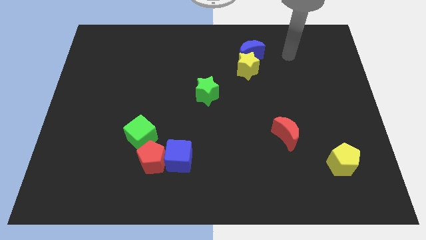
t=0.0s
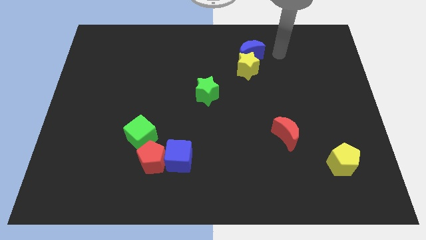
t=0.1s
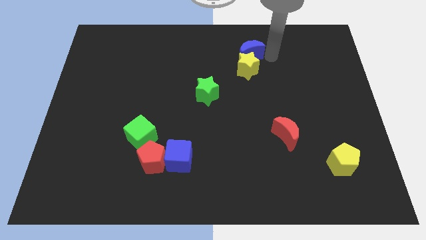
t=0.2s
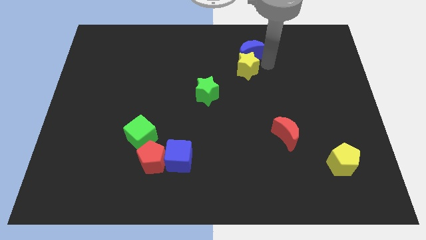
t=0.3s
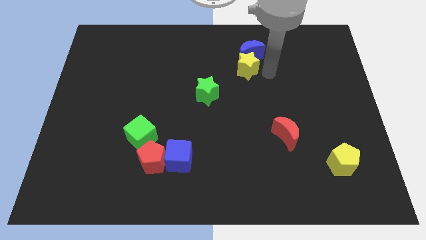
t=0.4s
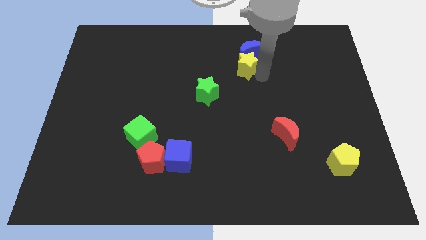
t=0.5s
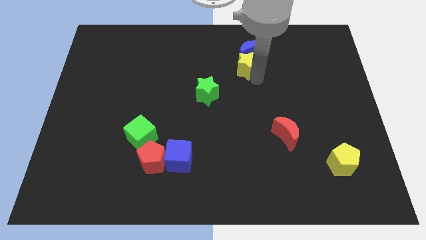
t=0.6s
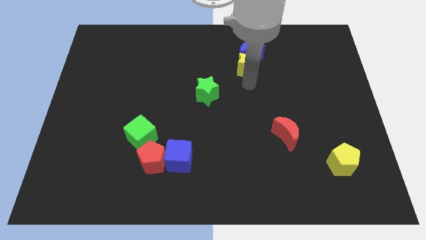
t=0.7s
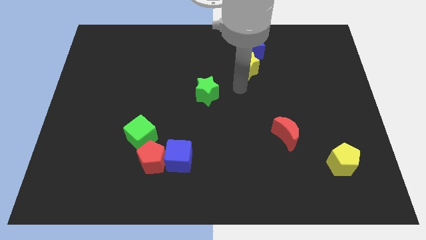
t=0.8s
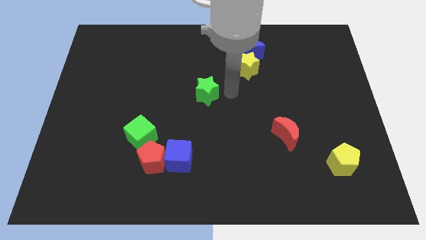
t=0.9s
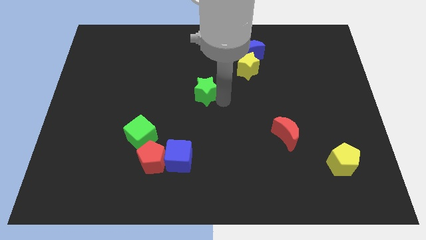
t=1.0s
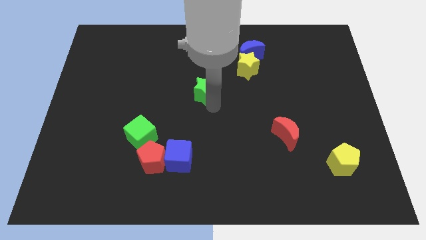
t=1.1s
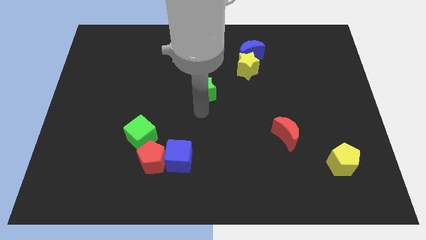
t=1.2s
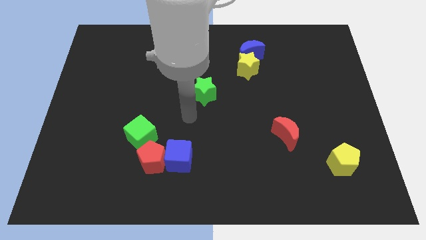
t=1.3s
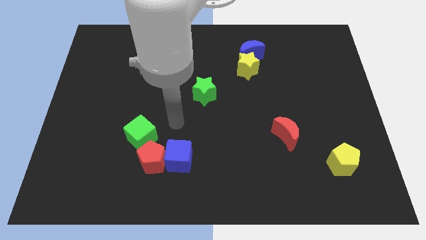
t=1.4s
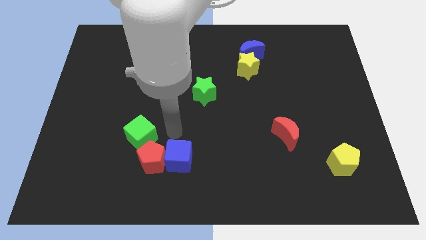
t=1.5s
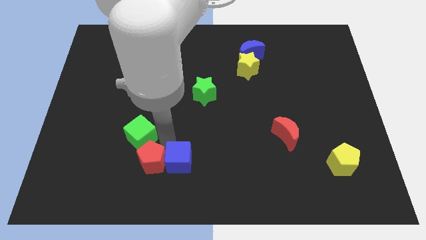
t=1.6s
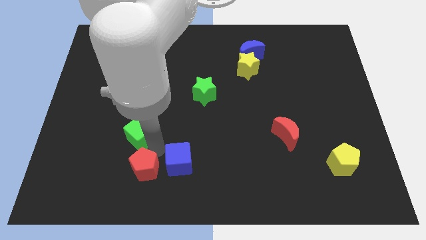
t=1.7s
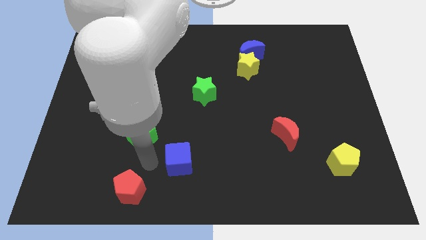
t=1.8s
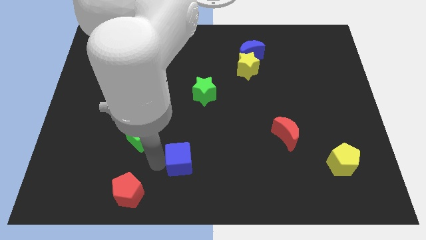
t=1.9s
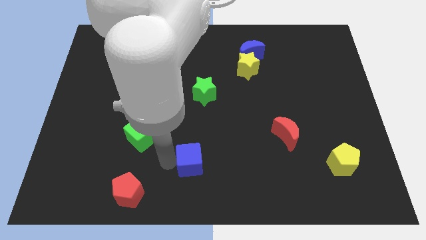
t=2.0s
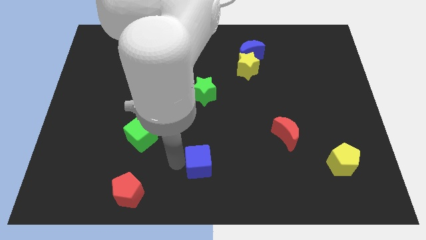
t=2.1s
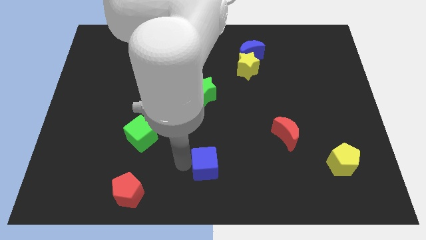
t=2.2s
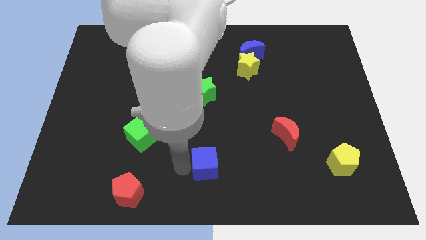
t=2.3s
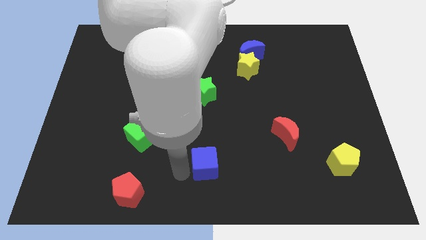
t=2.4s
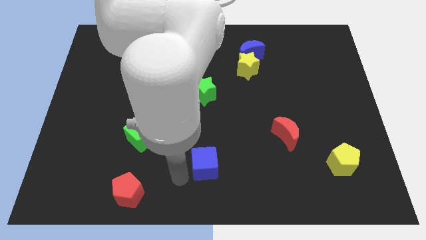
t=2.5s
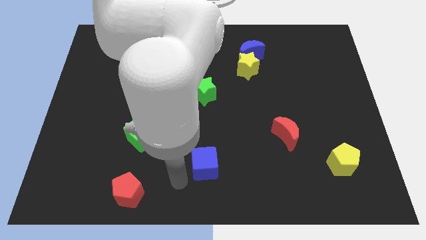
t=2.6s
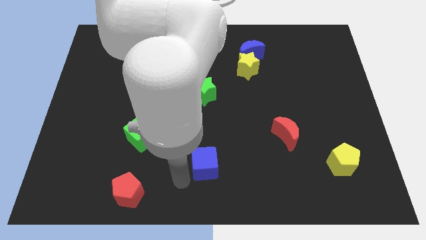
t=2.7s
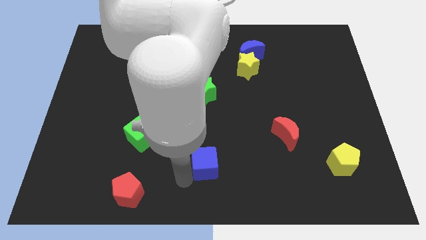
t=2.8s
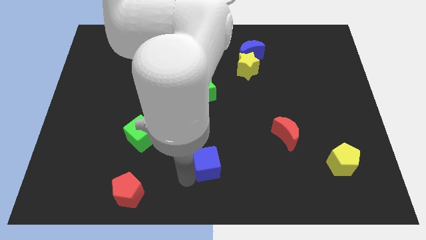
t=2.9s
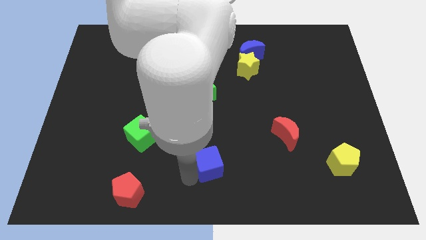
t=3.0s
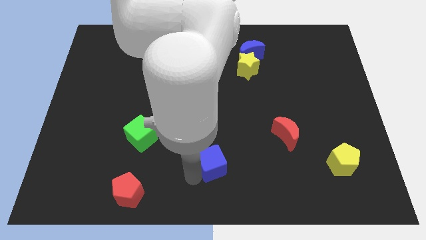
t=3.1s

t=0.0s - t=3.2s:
slide the blue cube a bit to the right

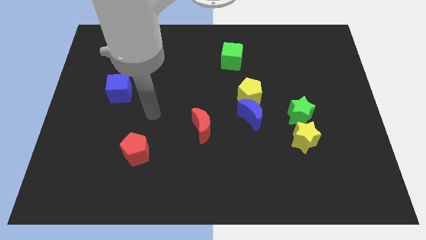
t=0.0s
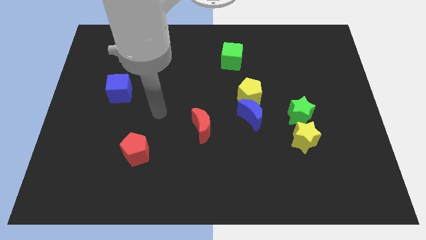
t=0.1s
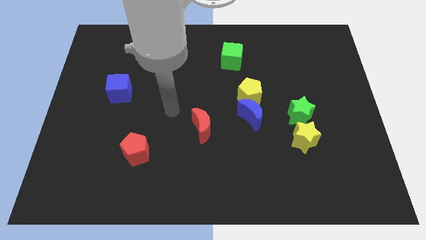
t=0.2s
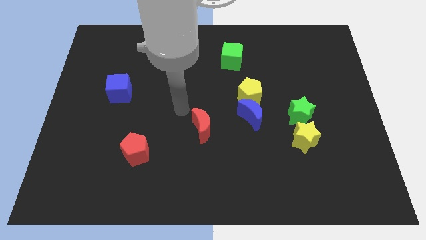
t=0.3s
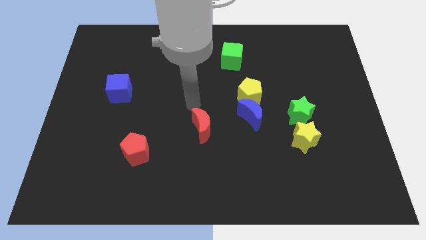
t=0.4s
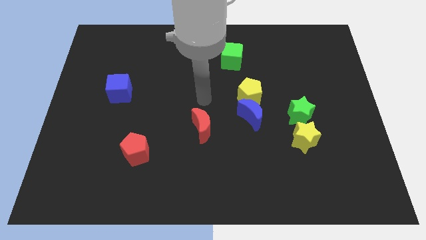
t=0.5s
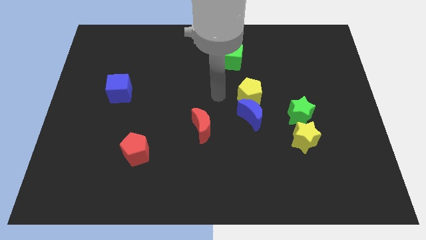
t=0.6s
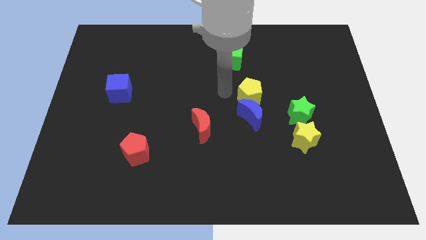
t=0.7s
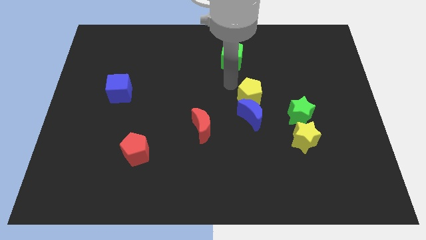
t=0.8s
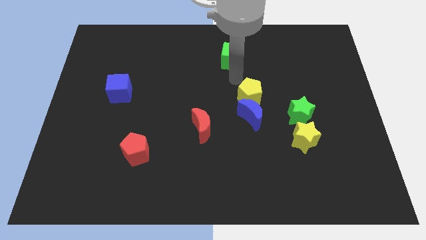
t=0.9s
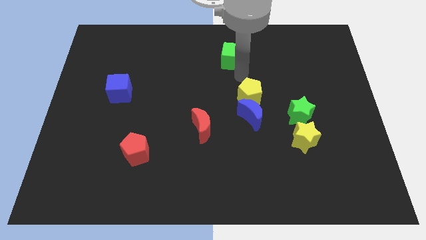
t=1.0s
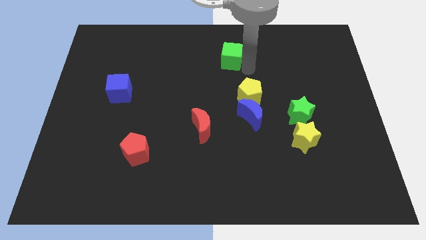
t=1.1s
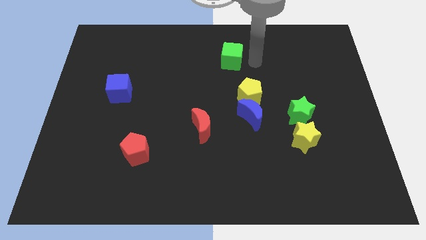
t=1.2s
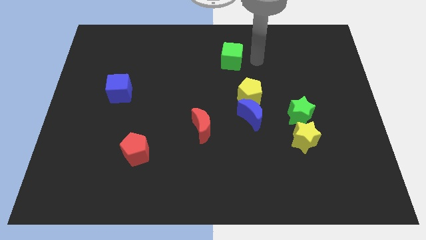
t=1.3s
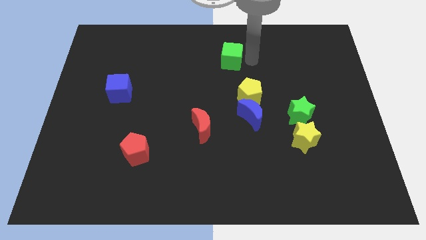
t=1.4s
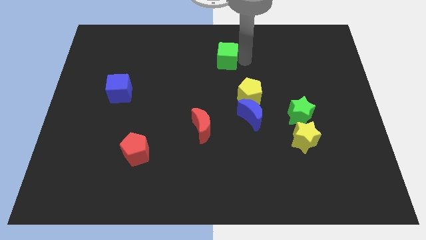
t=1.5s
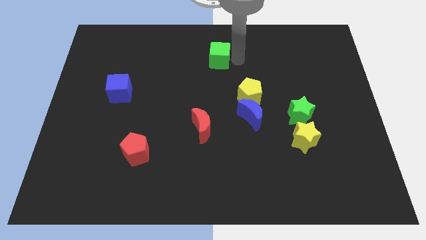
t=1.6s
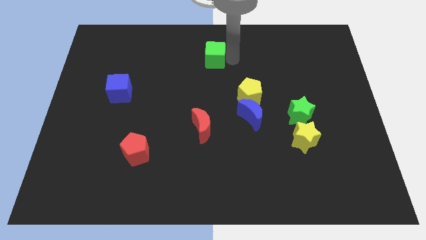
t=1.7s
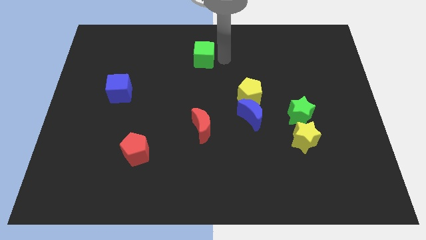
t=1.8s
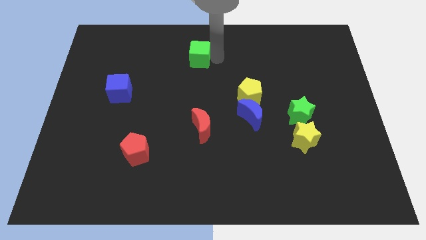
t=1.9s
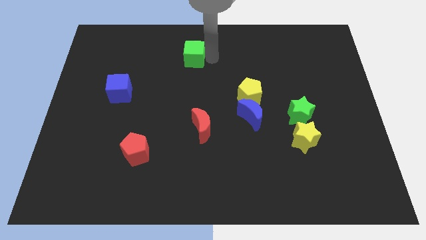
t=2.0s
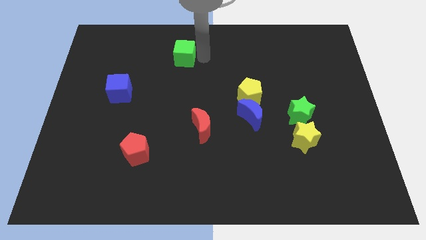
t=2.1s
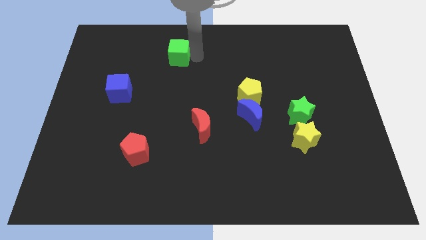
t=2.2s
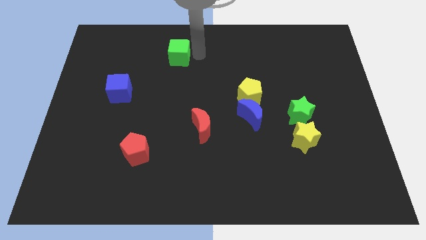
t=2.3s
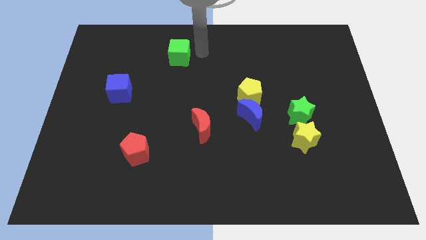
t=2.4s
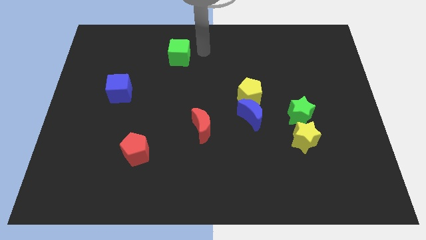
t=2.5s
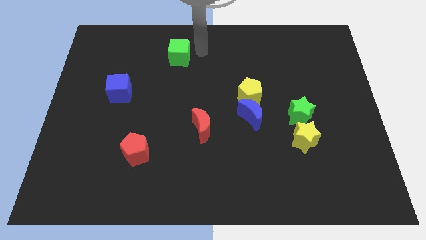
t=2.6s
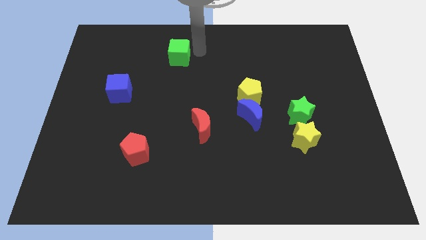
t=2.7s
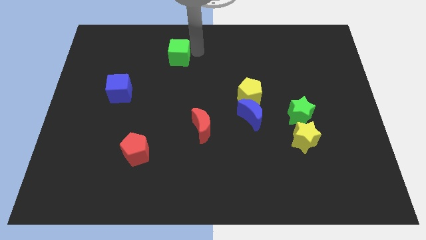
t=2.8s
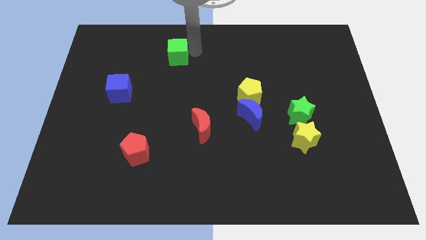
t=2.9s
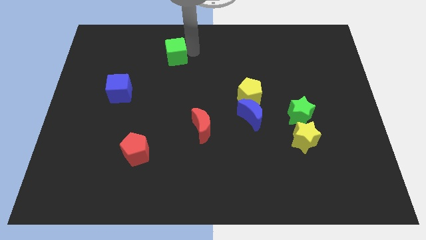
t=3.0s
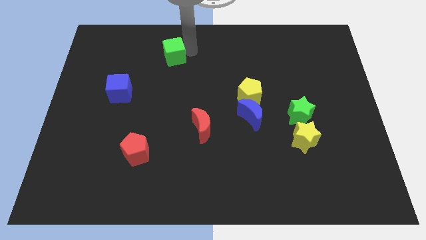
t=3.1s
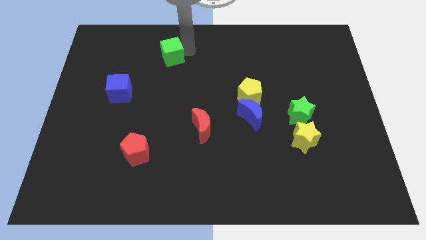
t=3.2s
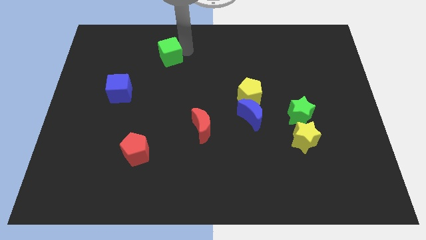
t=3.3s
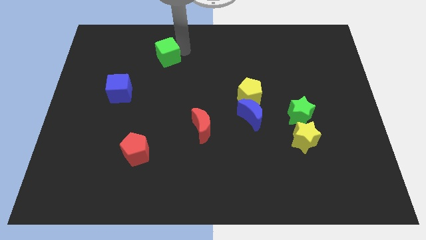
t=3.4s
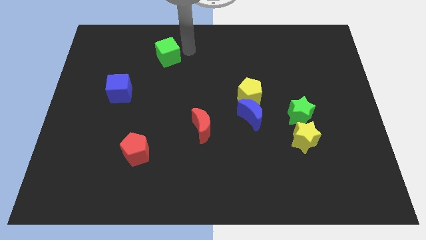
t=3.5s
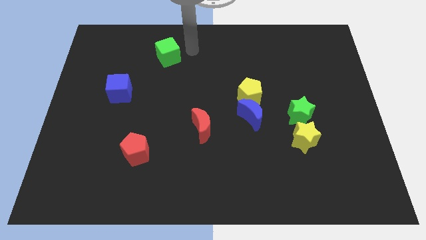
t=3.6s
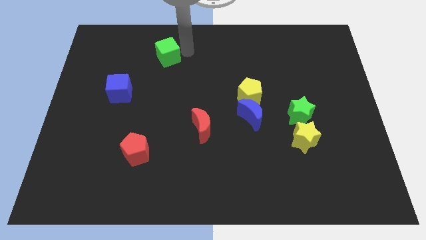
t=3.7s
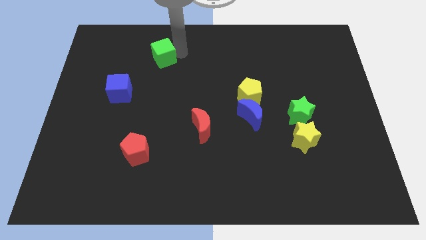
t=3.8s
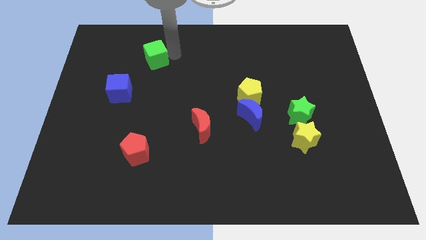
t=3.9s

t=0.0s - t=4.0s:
slide the green cube to the left

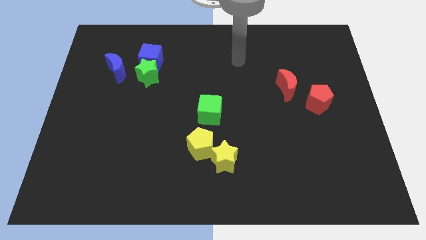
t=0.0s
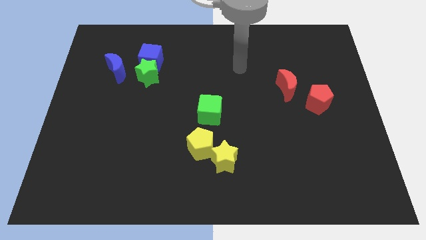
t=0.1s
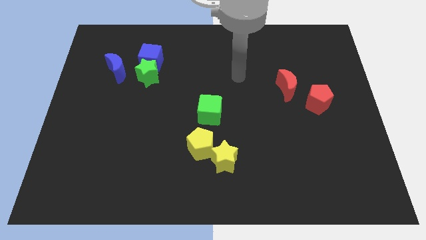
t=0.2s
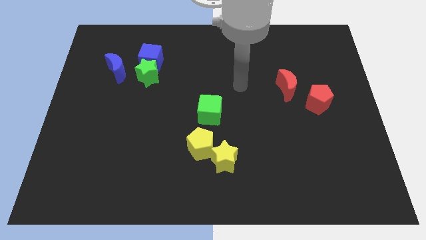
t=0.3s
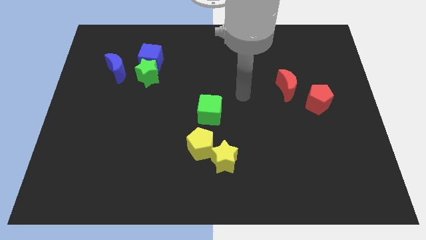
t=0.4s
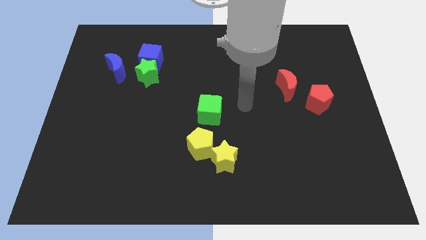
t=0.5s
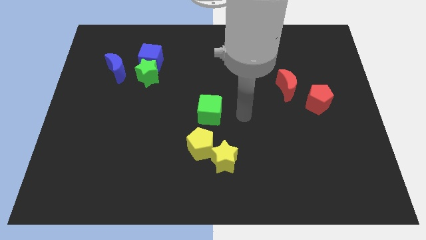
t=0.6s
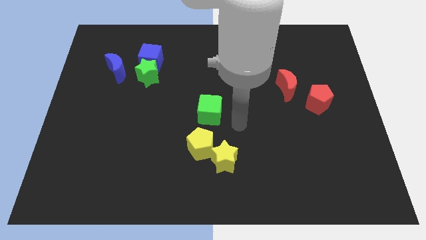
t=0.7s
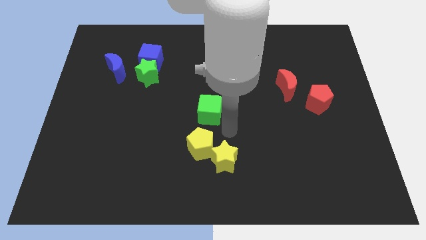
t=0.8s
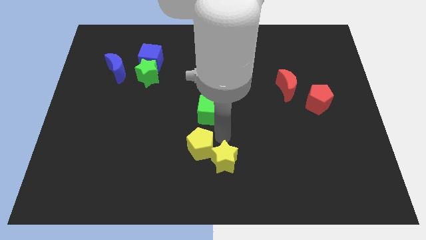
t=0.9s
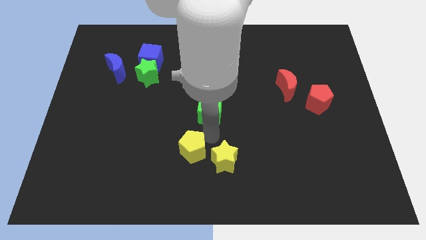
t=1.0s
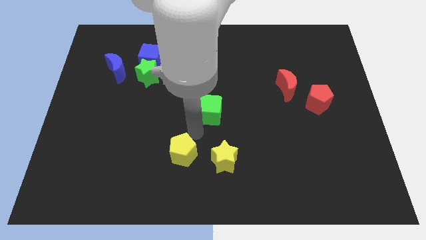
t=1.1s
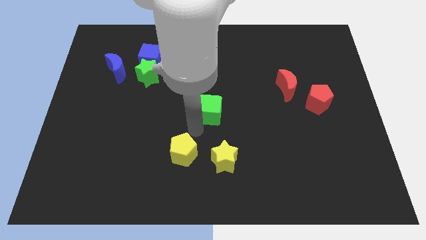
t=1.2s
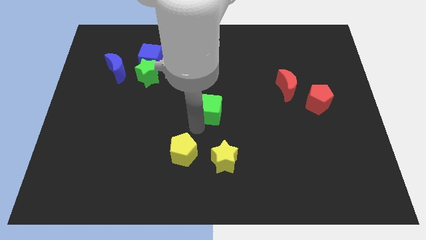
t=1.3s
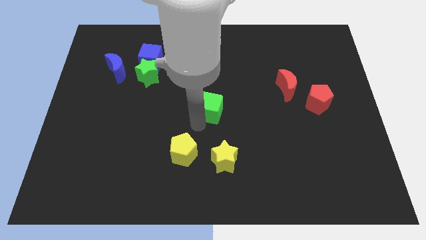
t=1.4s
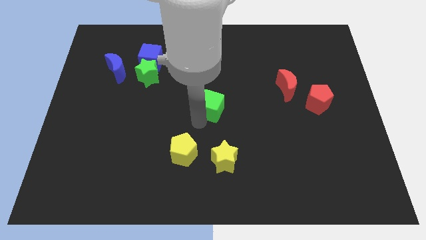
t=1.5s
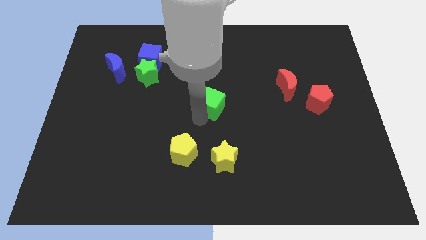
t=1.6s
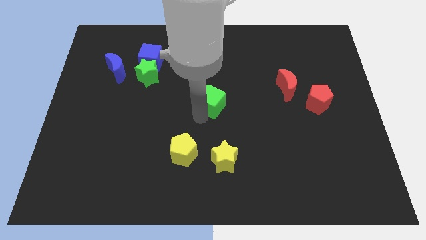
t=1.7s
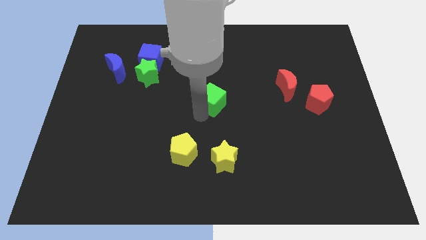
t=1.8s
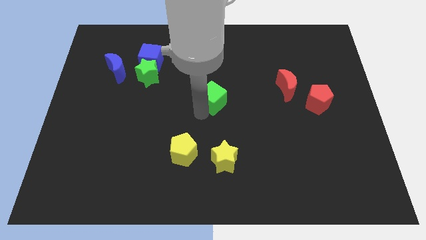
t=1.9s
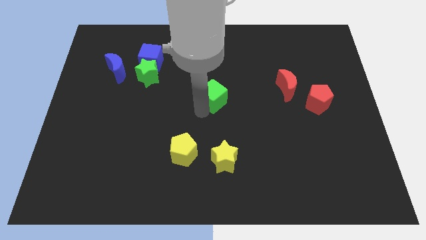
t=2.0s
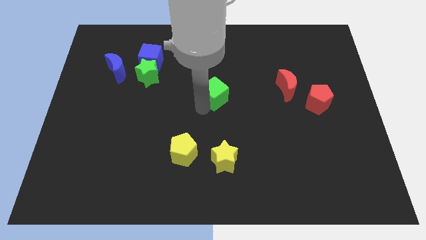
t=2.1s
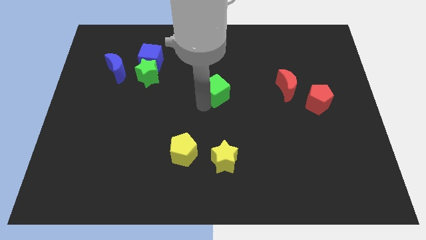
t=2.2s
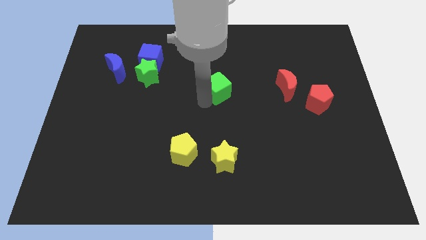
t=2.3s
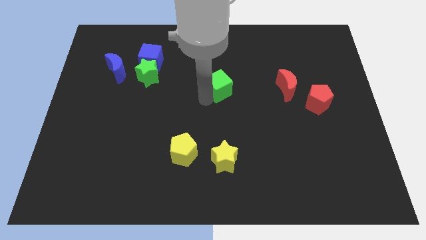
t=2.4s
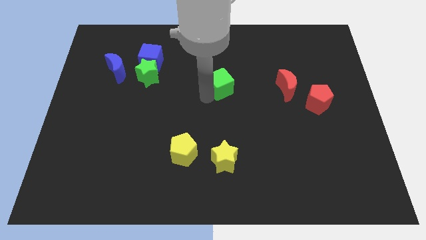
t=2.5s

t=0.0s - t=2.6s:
slide the green cube upwards and right a little
